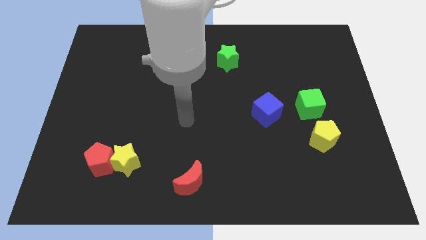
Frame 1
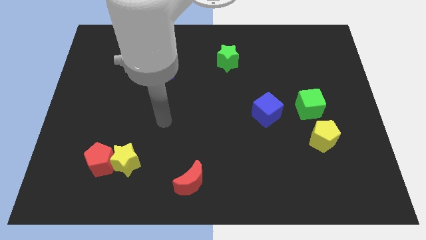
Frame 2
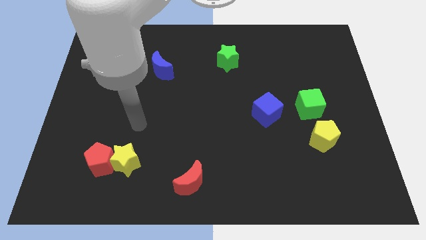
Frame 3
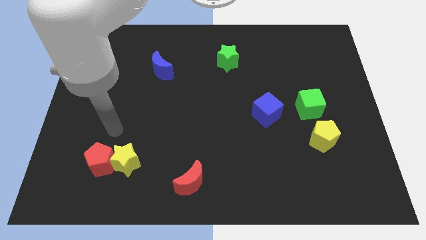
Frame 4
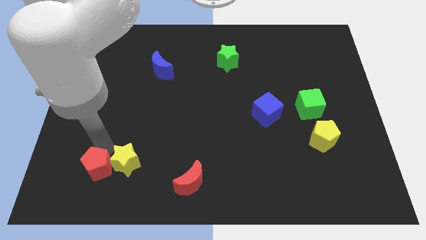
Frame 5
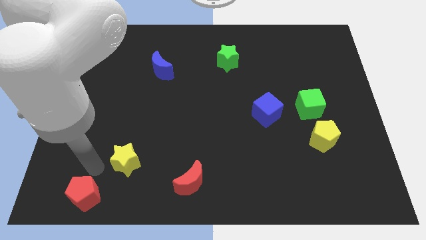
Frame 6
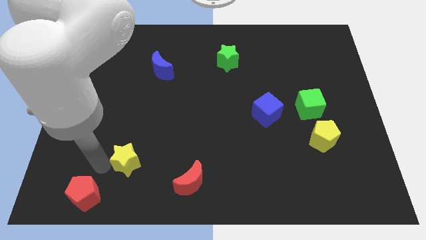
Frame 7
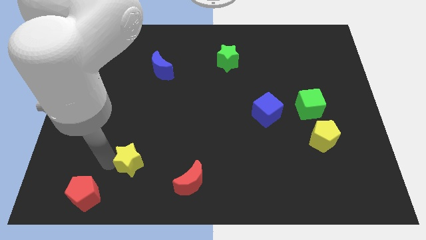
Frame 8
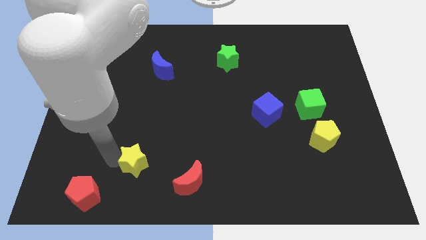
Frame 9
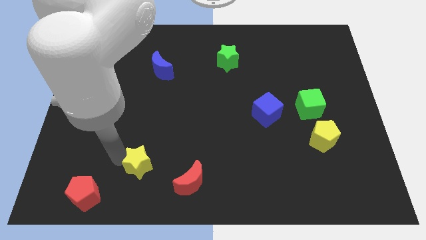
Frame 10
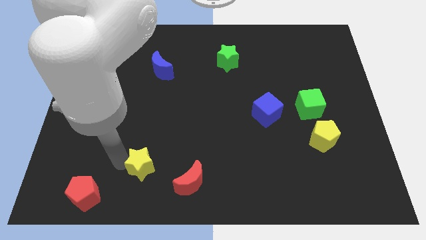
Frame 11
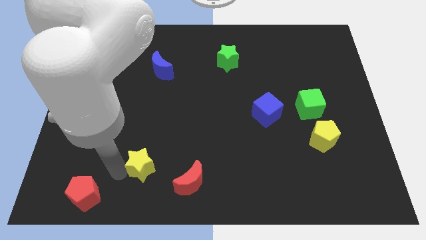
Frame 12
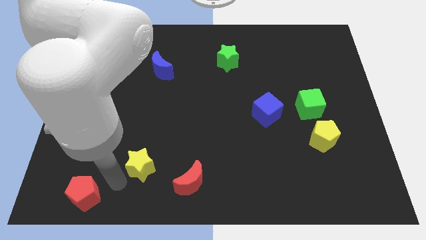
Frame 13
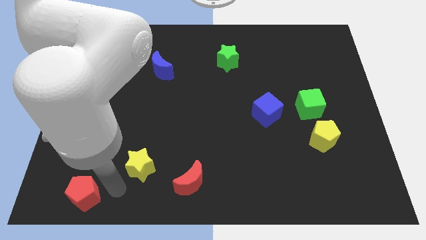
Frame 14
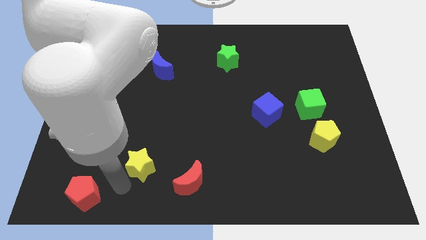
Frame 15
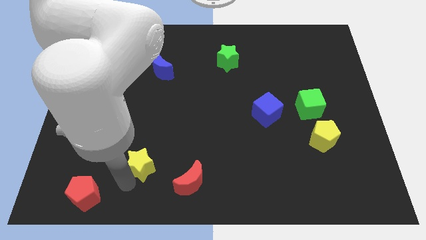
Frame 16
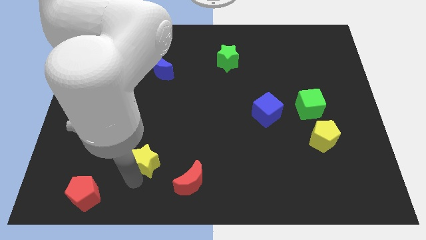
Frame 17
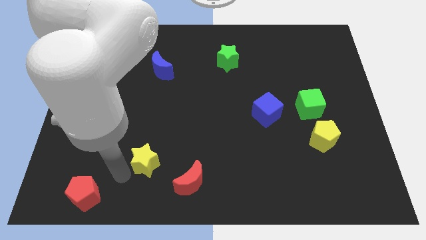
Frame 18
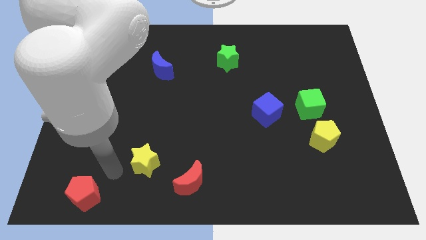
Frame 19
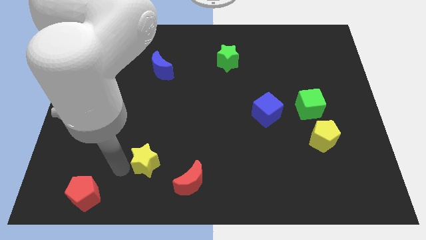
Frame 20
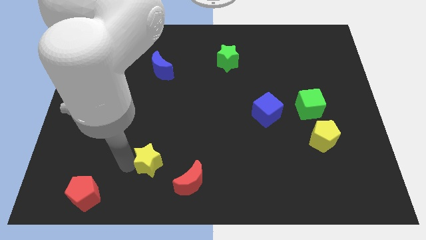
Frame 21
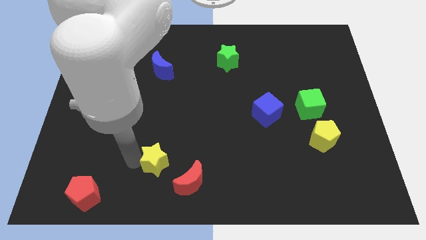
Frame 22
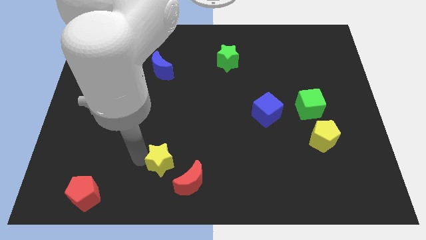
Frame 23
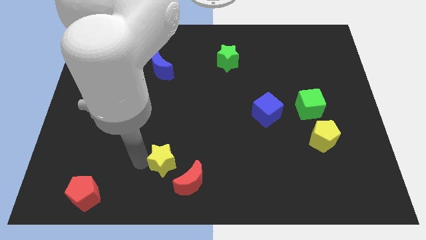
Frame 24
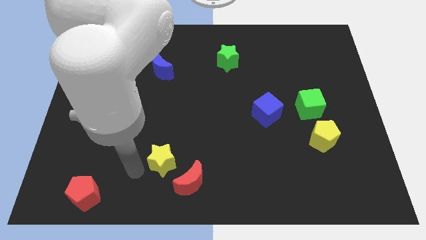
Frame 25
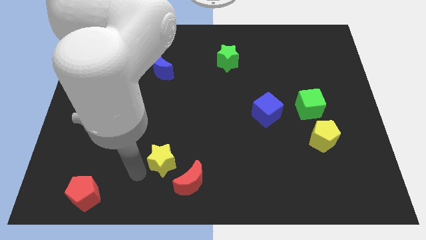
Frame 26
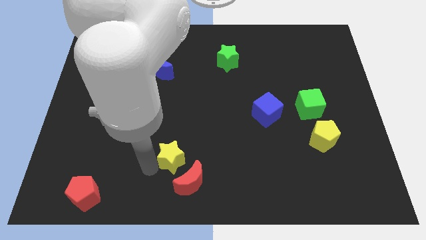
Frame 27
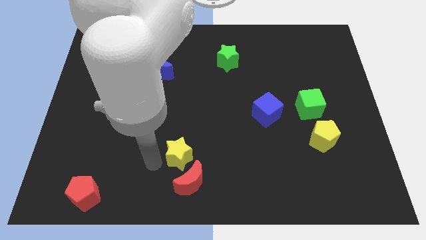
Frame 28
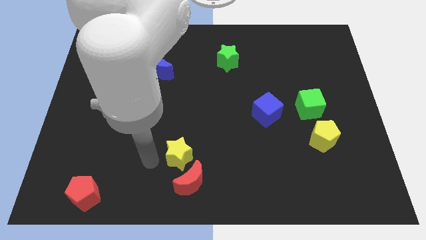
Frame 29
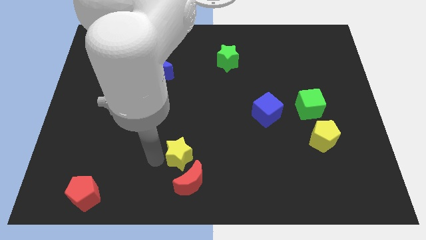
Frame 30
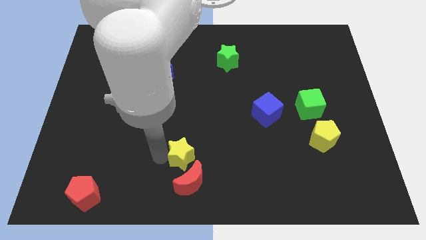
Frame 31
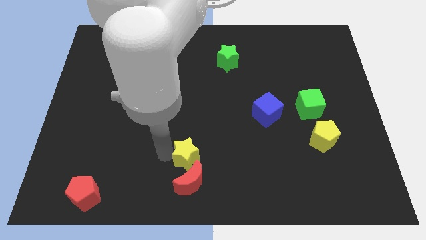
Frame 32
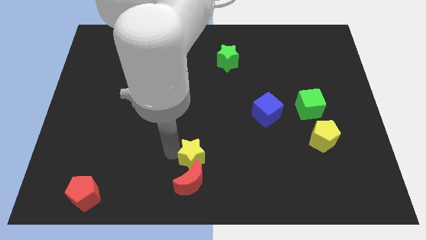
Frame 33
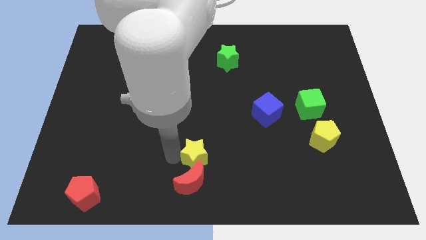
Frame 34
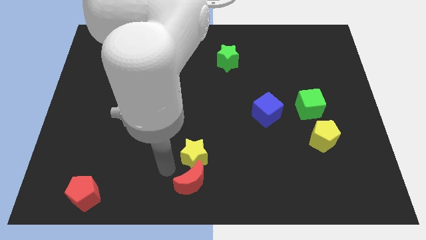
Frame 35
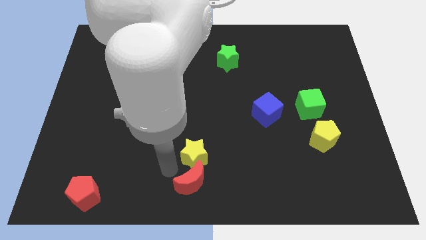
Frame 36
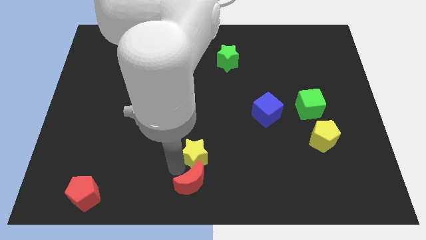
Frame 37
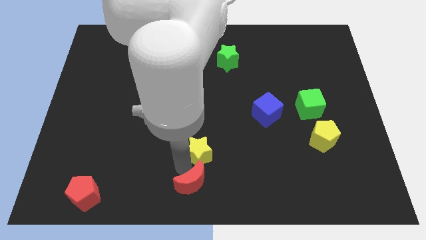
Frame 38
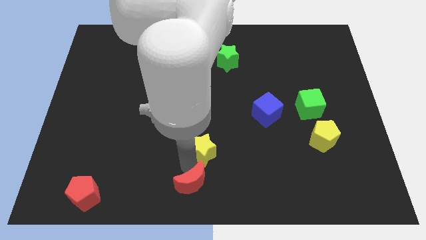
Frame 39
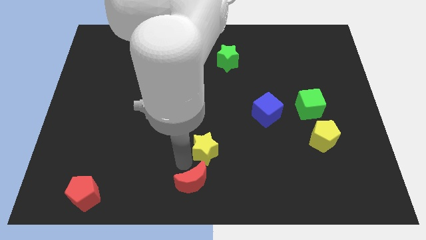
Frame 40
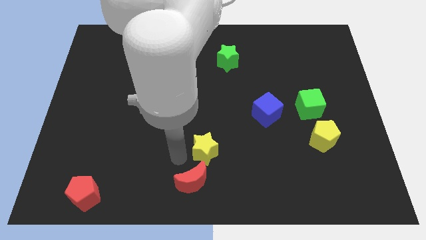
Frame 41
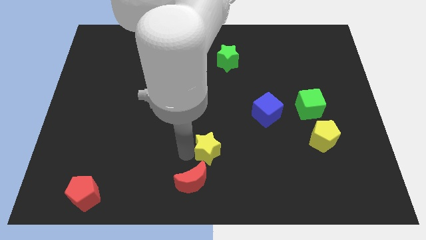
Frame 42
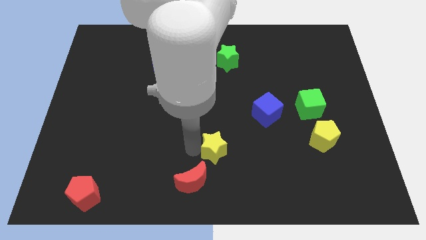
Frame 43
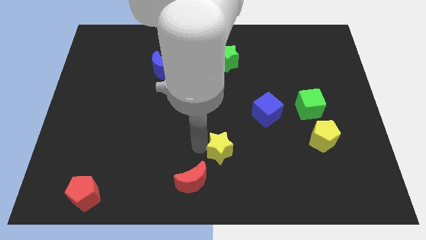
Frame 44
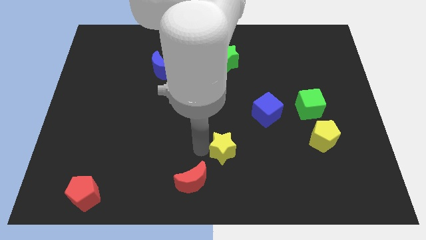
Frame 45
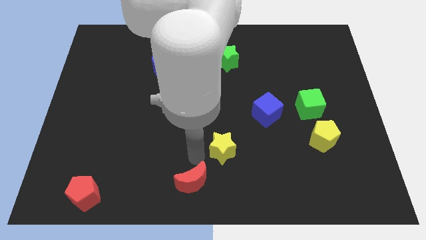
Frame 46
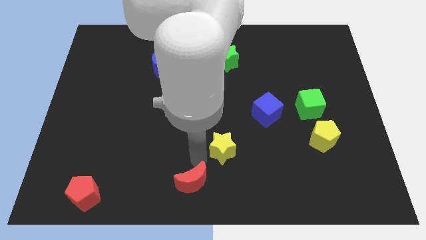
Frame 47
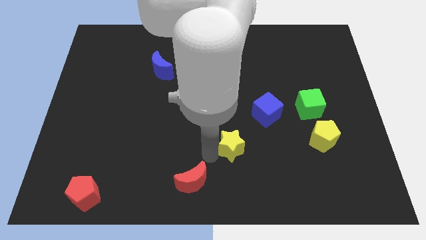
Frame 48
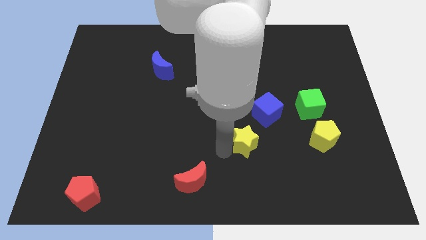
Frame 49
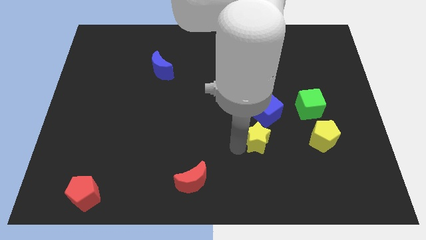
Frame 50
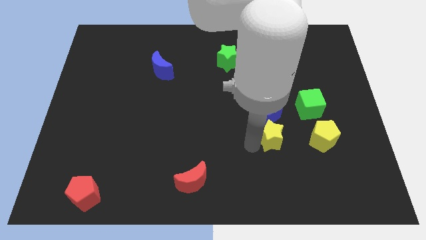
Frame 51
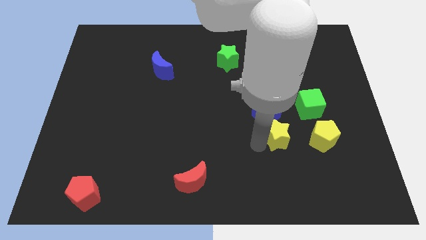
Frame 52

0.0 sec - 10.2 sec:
put the yellow star diagonally down and to the left of the green cube

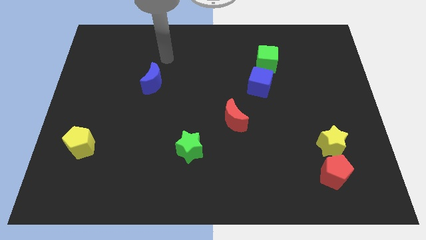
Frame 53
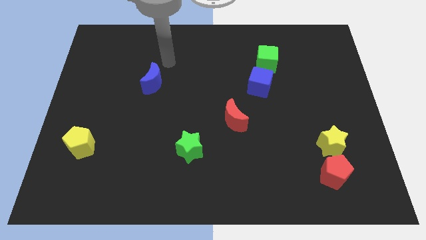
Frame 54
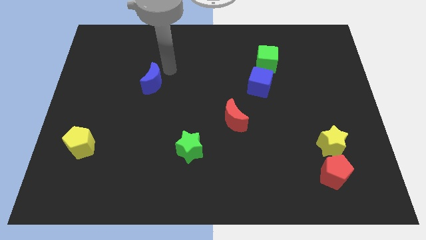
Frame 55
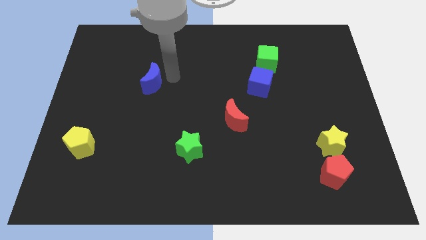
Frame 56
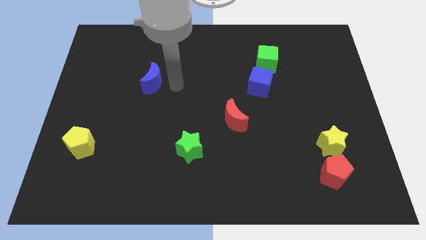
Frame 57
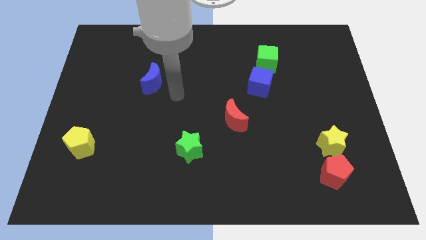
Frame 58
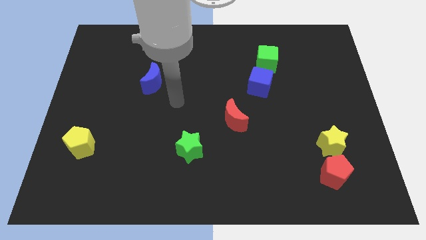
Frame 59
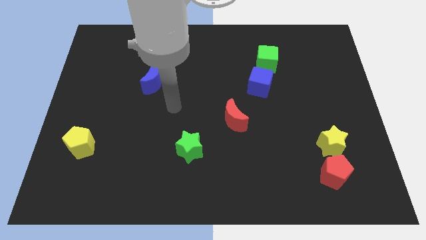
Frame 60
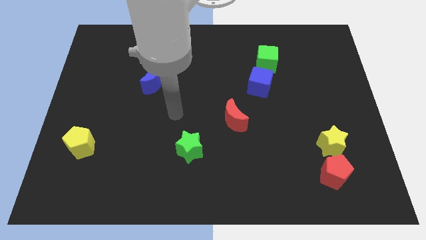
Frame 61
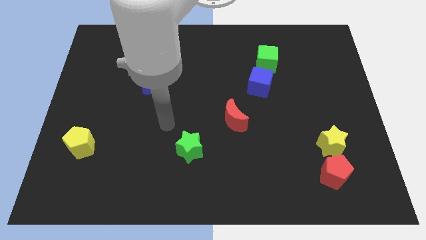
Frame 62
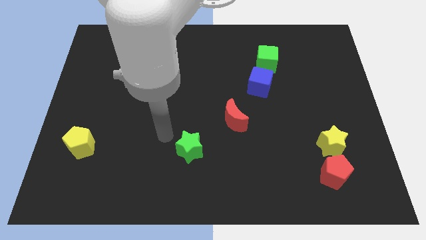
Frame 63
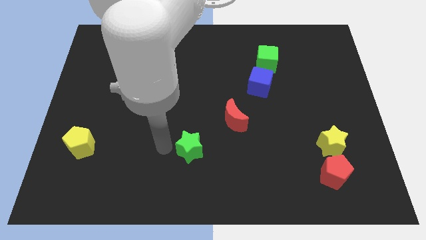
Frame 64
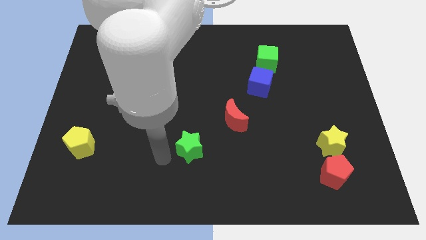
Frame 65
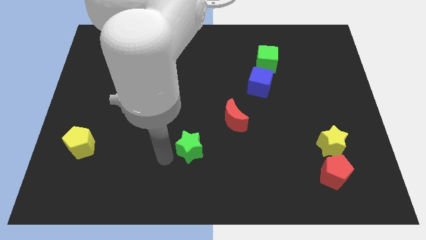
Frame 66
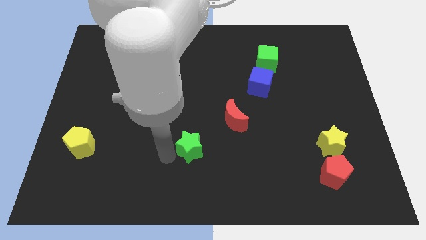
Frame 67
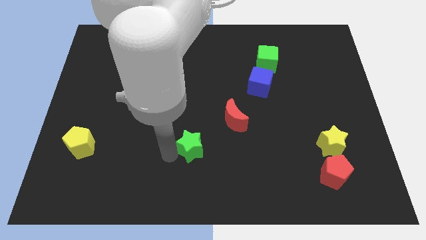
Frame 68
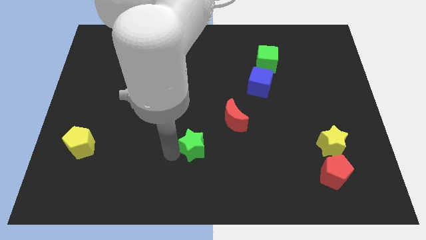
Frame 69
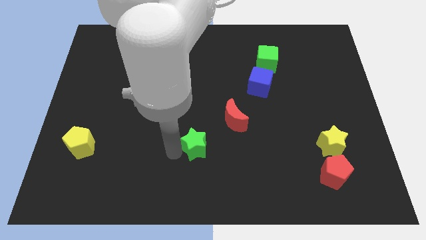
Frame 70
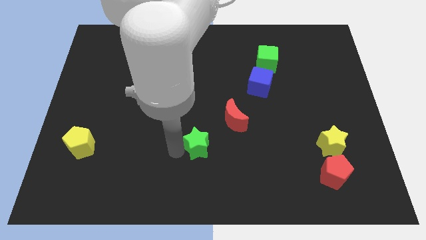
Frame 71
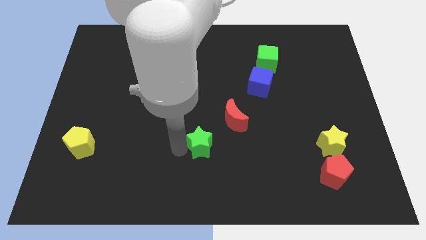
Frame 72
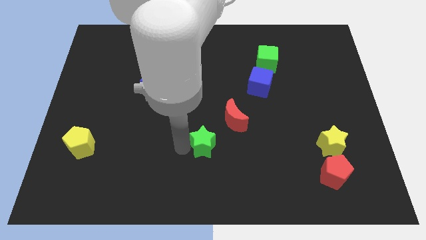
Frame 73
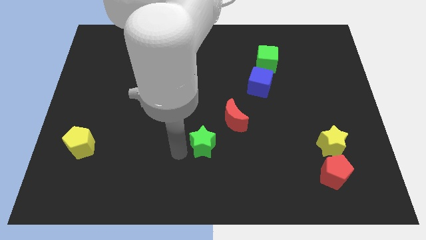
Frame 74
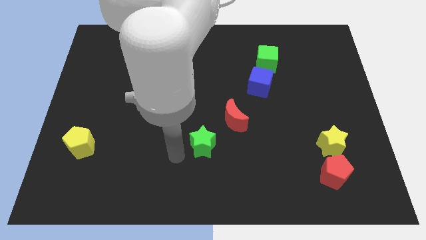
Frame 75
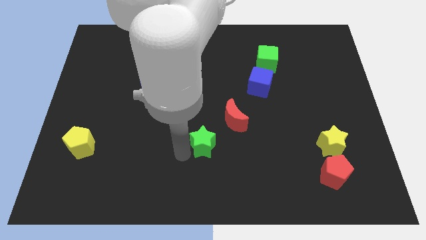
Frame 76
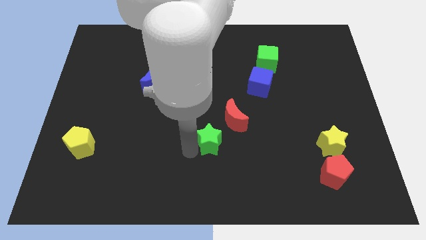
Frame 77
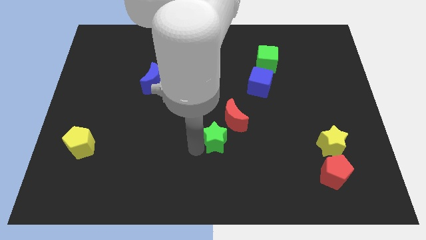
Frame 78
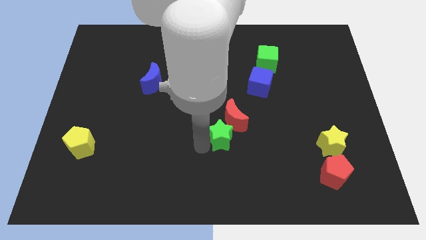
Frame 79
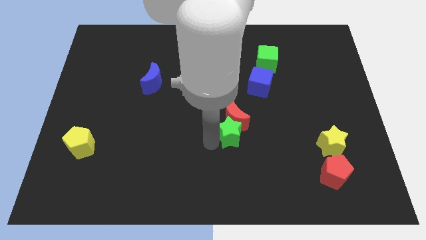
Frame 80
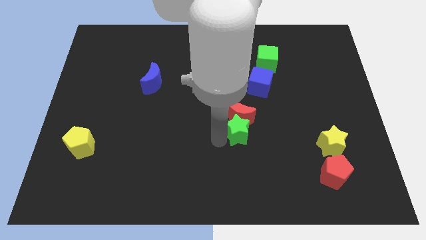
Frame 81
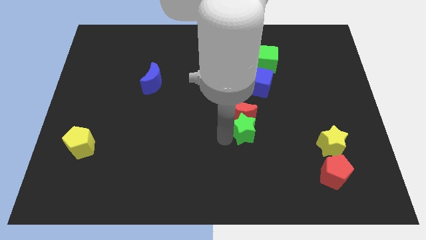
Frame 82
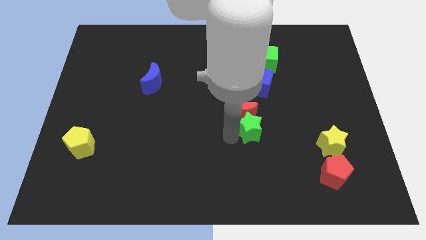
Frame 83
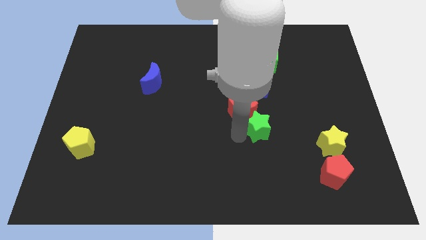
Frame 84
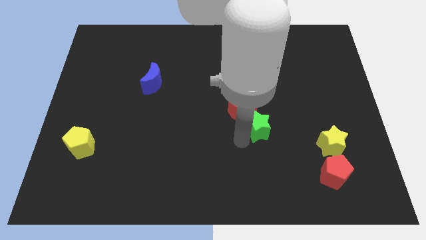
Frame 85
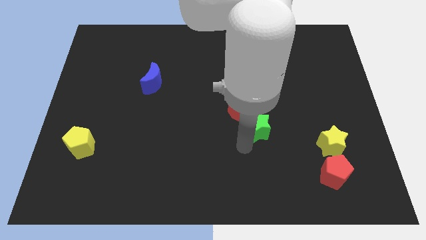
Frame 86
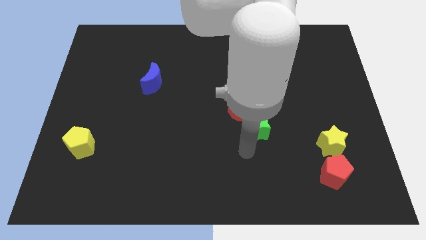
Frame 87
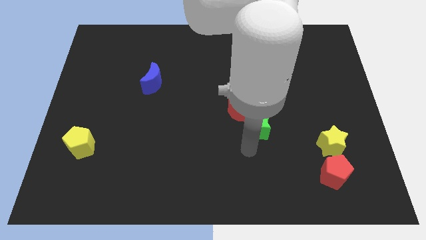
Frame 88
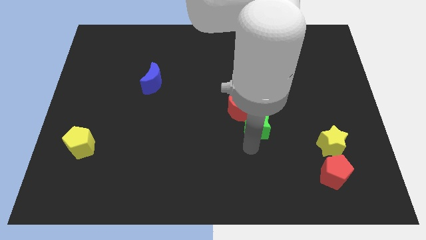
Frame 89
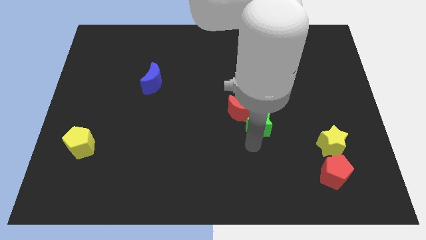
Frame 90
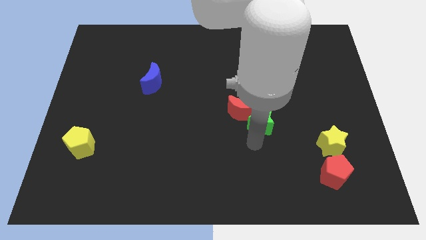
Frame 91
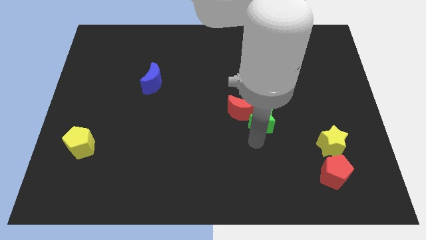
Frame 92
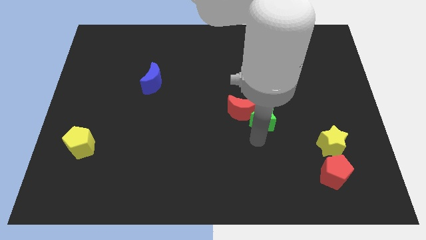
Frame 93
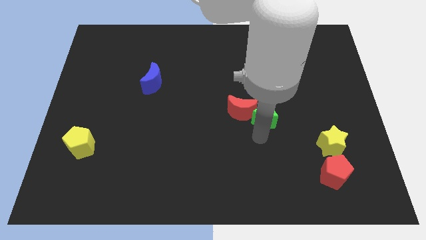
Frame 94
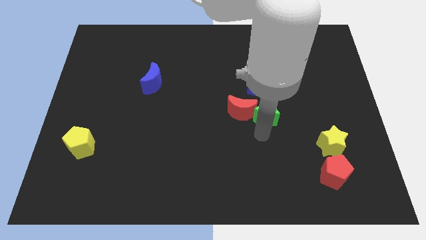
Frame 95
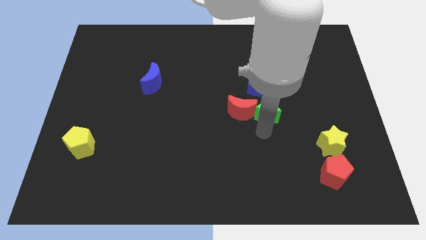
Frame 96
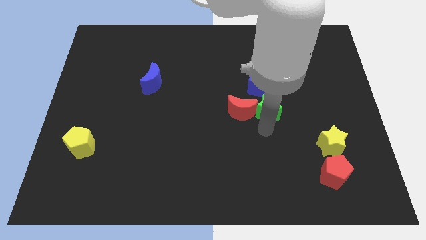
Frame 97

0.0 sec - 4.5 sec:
slide the green star to the bottom right of the blue cube
